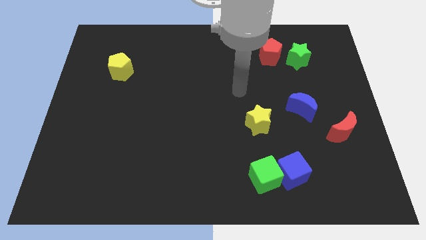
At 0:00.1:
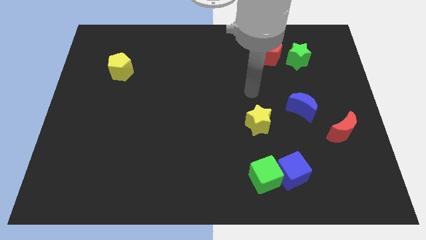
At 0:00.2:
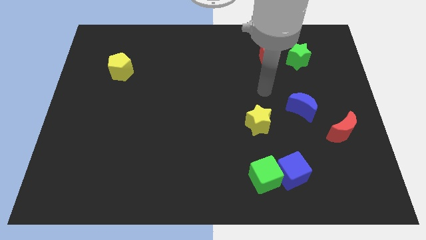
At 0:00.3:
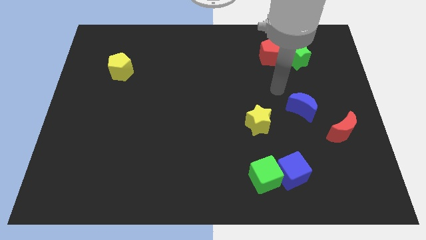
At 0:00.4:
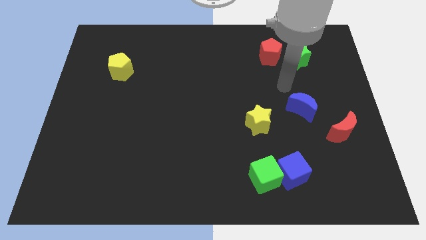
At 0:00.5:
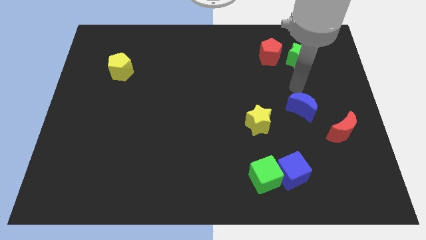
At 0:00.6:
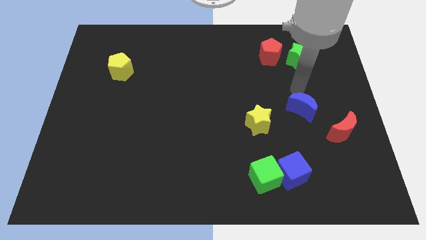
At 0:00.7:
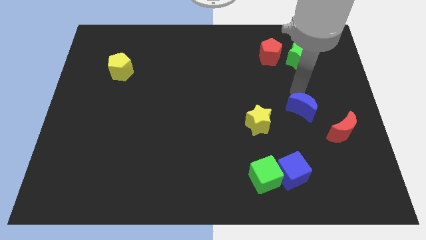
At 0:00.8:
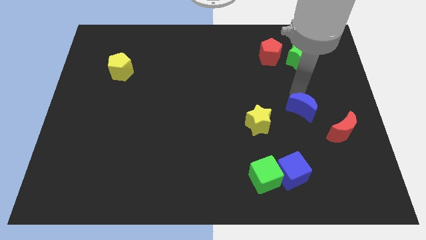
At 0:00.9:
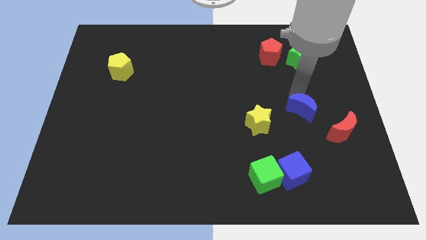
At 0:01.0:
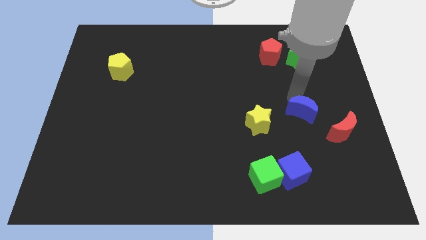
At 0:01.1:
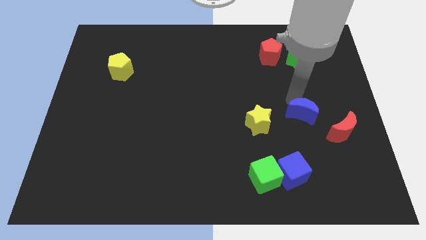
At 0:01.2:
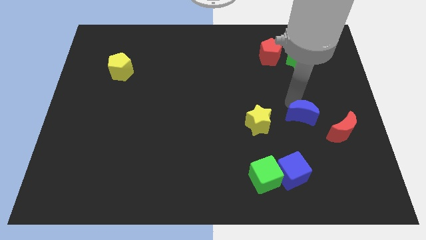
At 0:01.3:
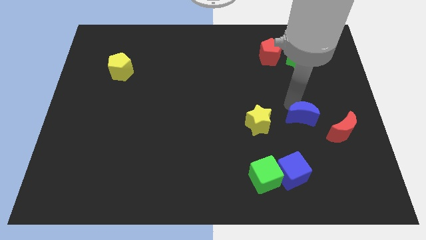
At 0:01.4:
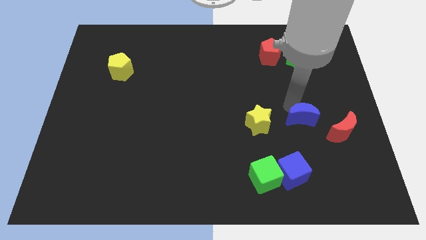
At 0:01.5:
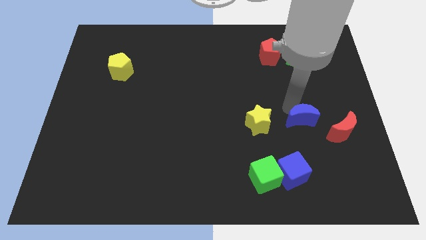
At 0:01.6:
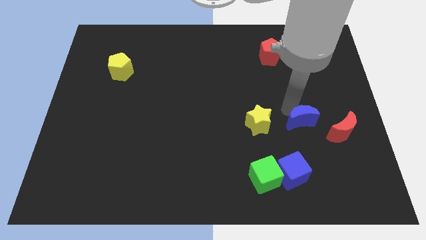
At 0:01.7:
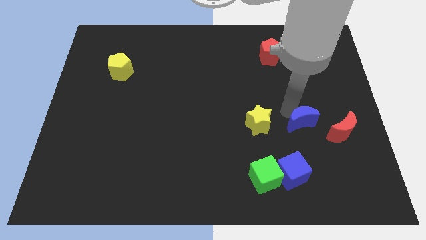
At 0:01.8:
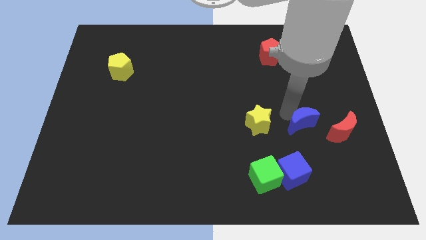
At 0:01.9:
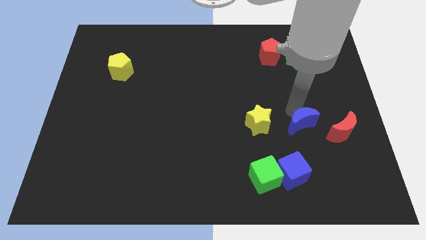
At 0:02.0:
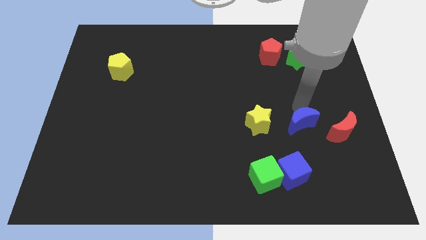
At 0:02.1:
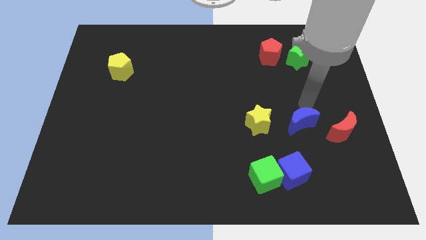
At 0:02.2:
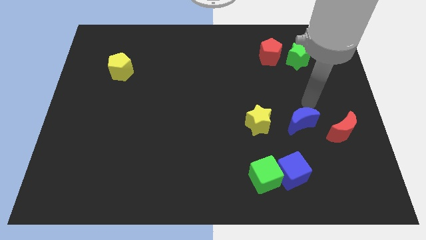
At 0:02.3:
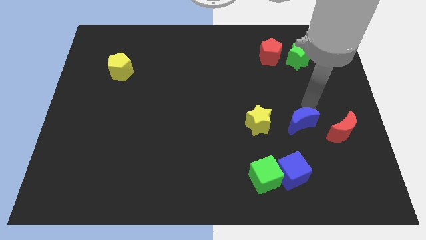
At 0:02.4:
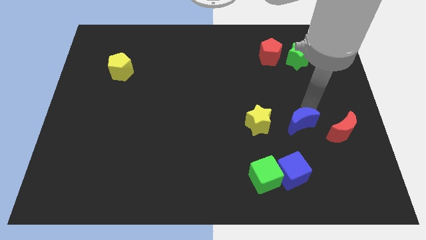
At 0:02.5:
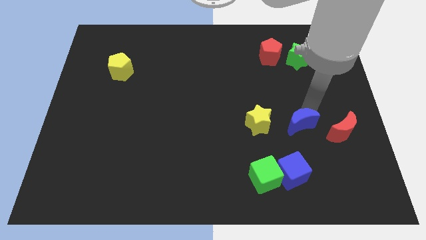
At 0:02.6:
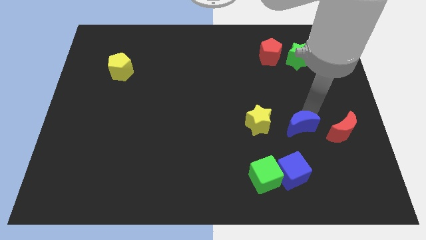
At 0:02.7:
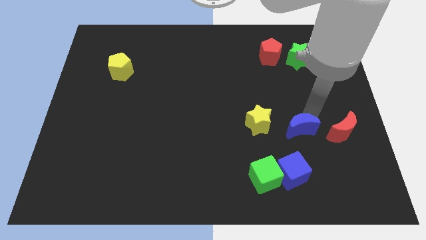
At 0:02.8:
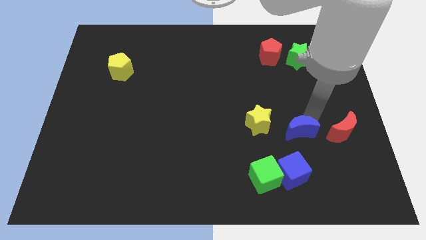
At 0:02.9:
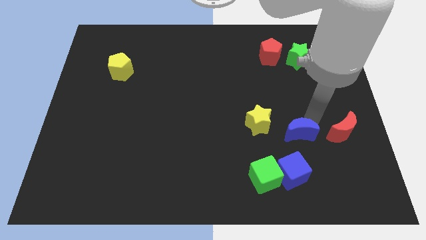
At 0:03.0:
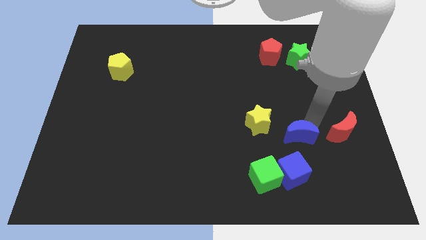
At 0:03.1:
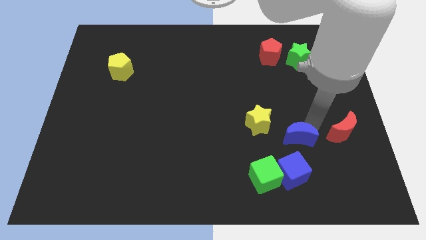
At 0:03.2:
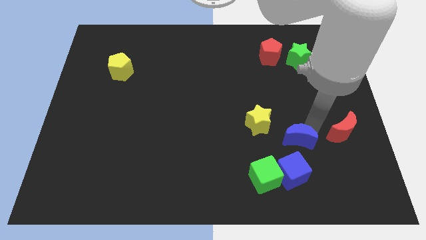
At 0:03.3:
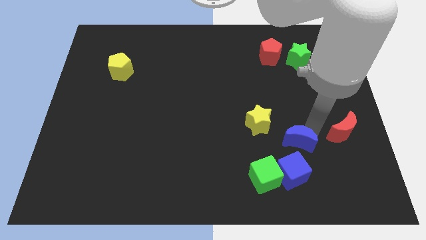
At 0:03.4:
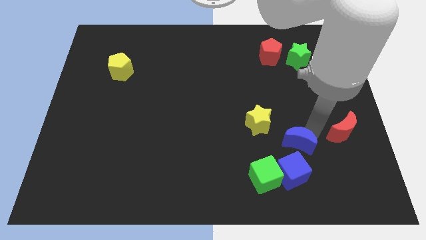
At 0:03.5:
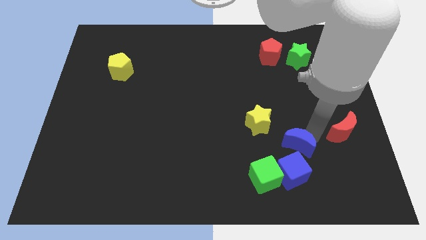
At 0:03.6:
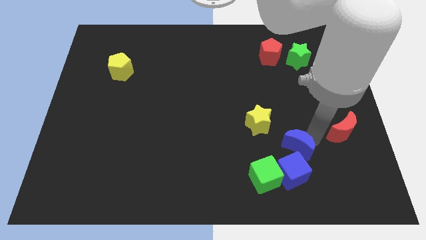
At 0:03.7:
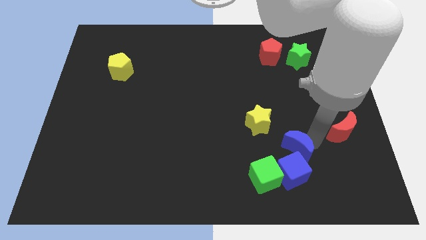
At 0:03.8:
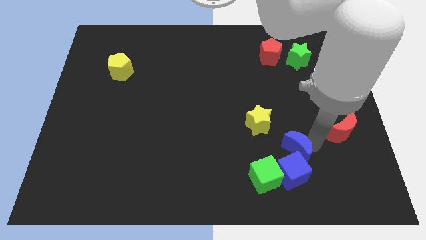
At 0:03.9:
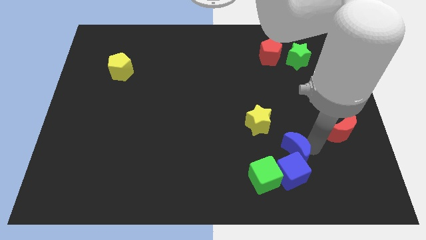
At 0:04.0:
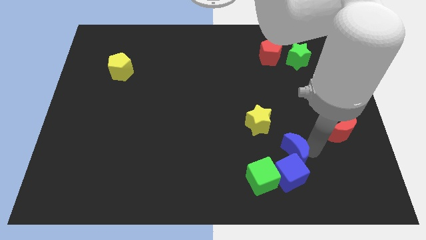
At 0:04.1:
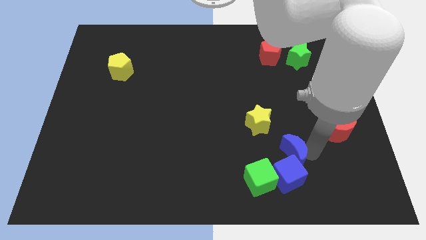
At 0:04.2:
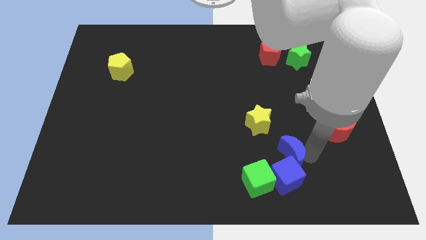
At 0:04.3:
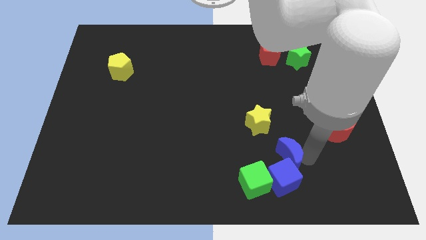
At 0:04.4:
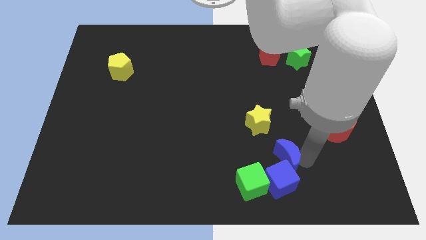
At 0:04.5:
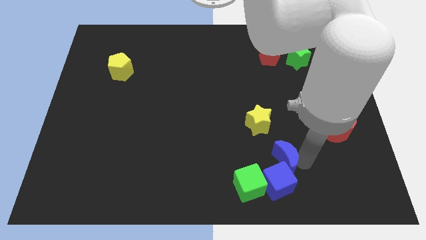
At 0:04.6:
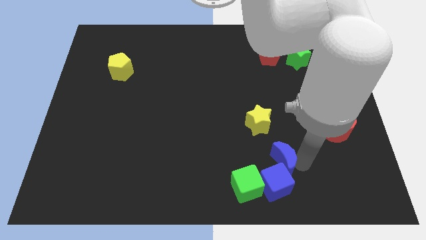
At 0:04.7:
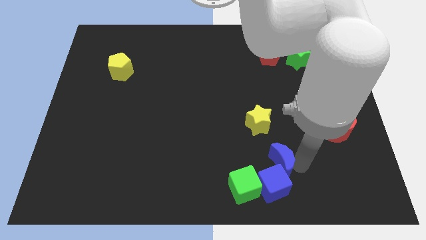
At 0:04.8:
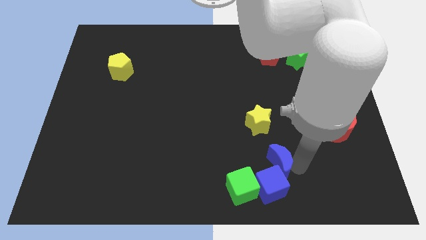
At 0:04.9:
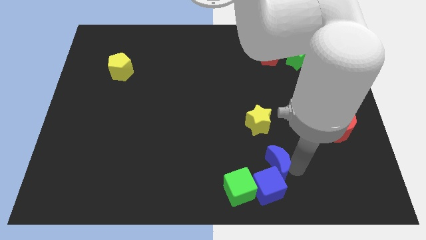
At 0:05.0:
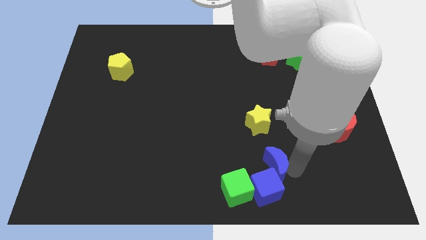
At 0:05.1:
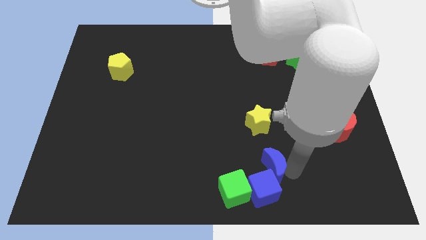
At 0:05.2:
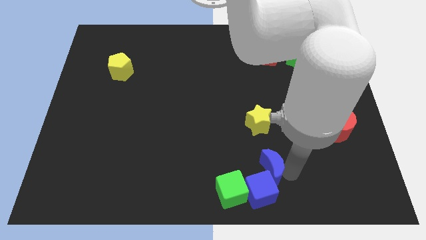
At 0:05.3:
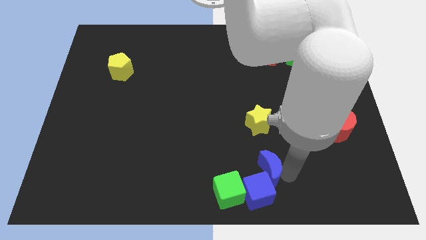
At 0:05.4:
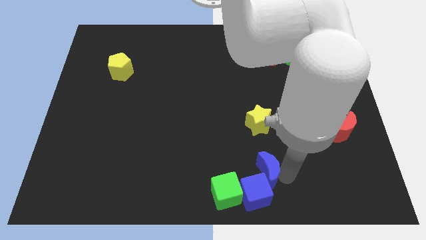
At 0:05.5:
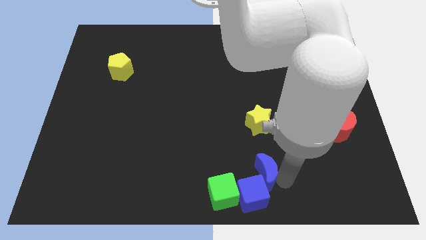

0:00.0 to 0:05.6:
push the blue moon to the bottom

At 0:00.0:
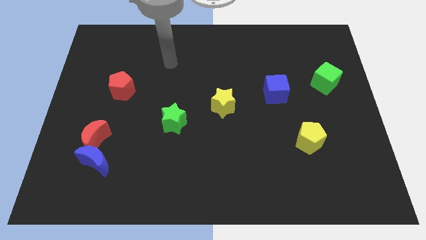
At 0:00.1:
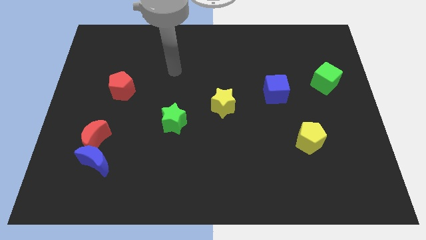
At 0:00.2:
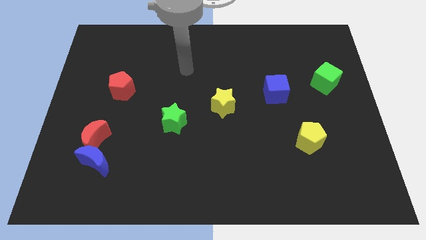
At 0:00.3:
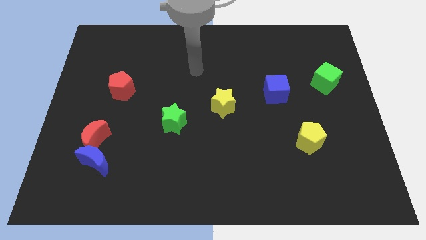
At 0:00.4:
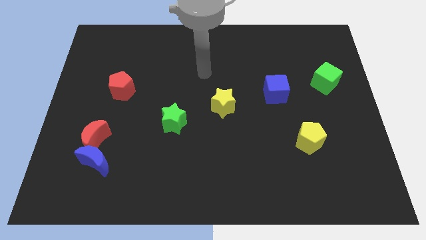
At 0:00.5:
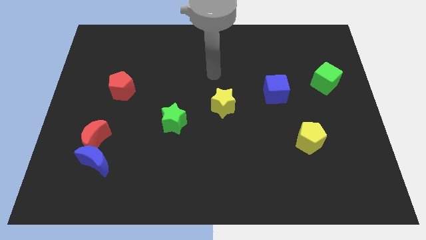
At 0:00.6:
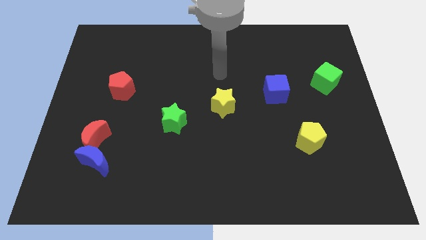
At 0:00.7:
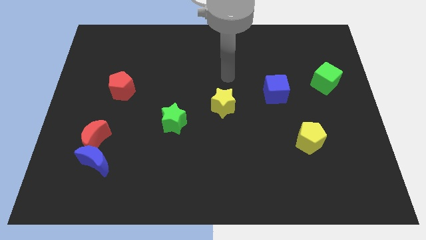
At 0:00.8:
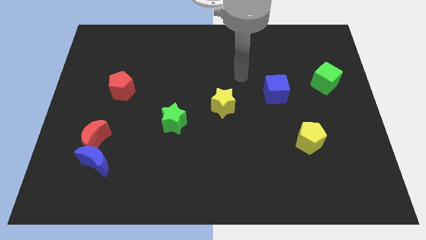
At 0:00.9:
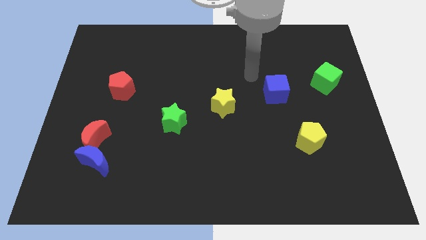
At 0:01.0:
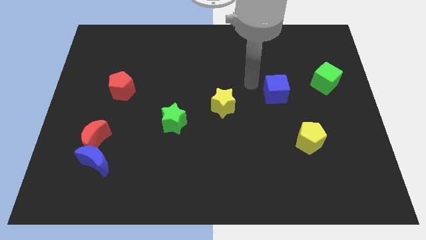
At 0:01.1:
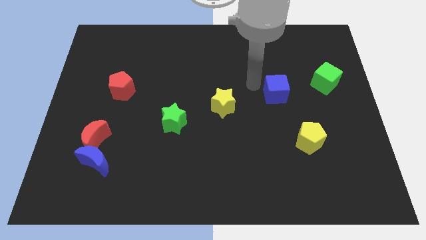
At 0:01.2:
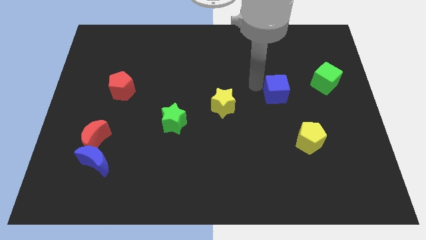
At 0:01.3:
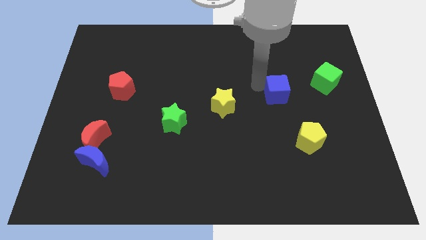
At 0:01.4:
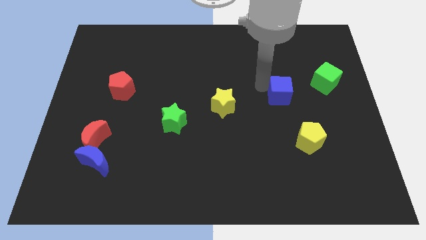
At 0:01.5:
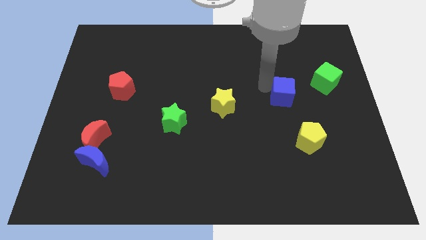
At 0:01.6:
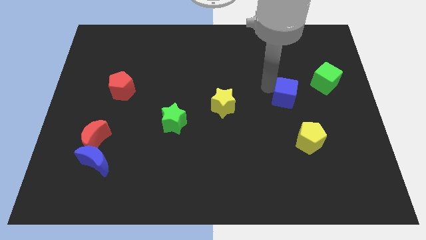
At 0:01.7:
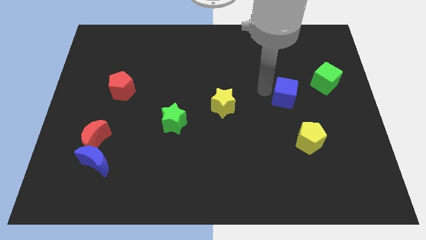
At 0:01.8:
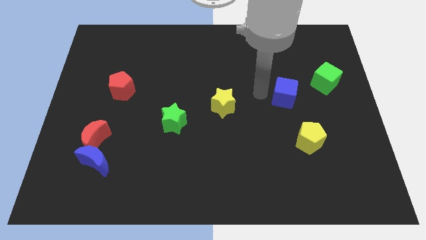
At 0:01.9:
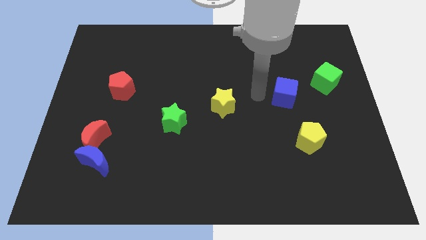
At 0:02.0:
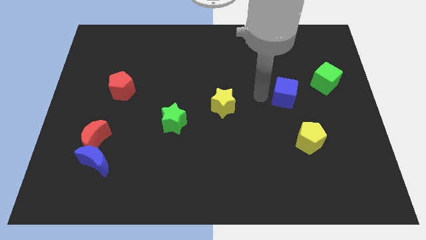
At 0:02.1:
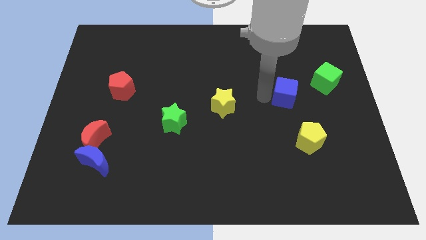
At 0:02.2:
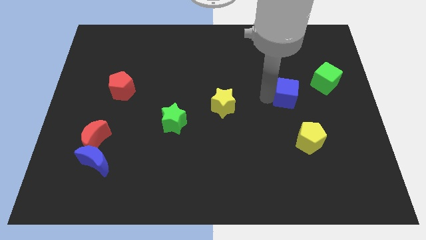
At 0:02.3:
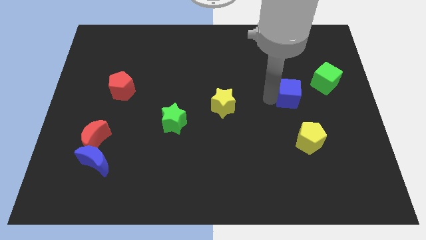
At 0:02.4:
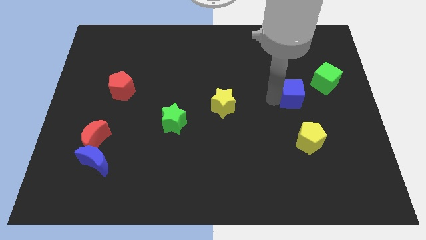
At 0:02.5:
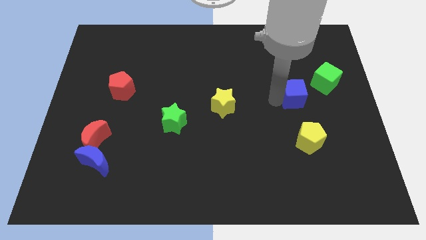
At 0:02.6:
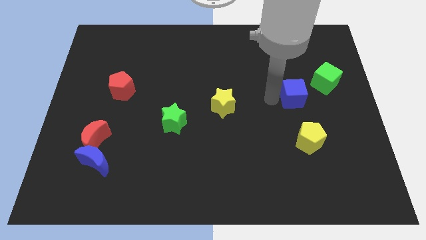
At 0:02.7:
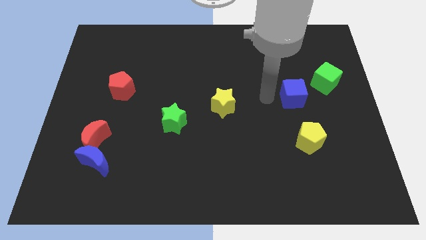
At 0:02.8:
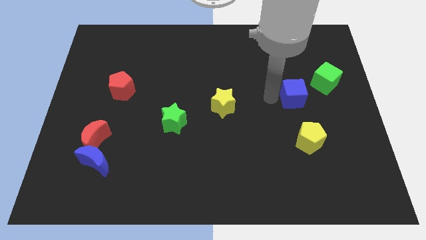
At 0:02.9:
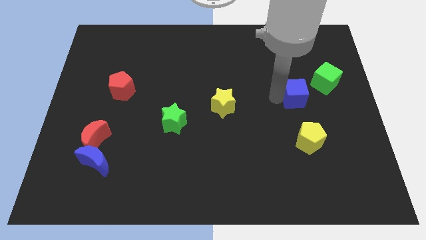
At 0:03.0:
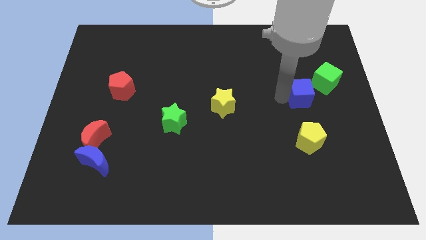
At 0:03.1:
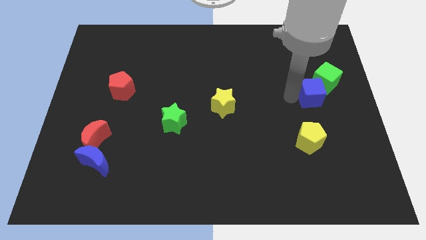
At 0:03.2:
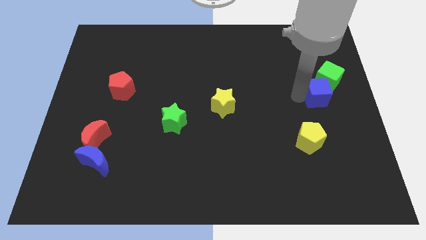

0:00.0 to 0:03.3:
put the blue cube to the right side of the board
